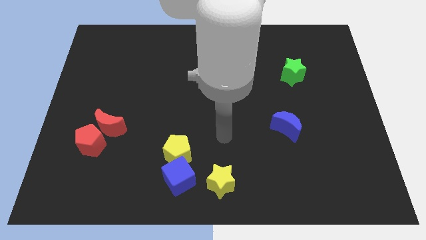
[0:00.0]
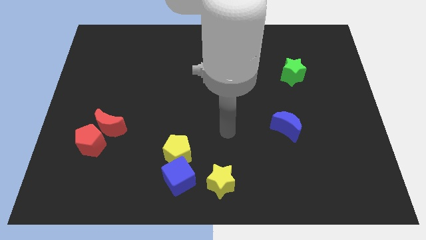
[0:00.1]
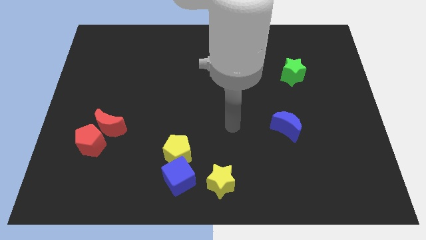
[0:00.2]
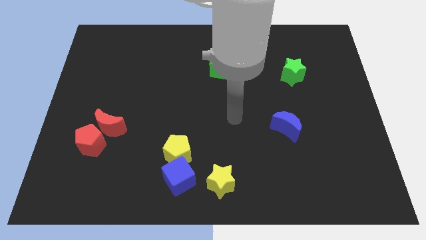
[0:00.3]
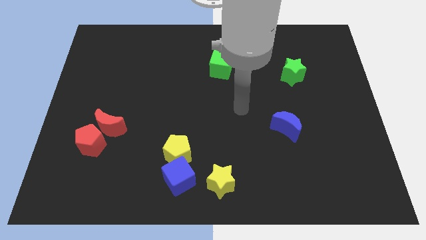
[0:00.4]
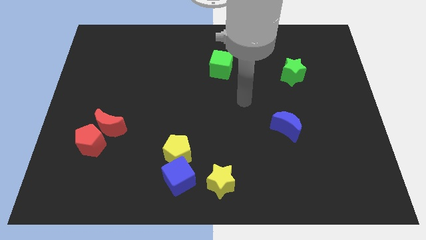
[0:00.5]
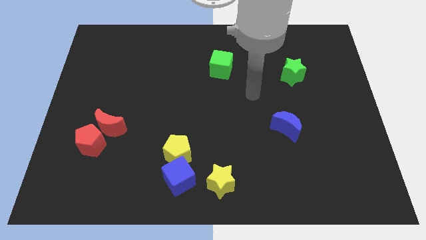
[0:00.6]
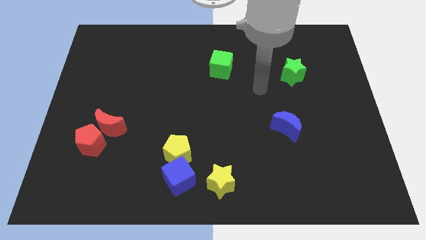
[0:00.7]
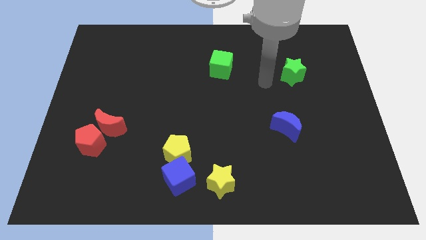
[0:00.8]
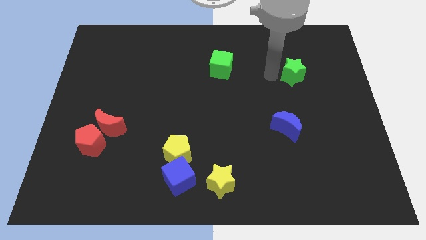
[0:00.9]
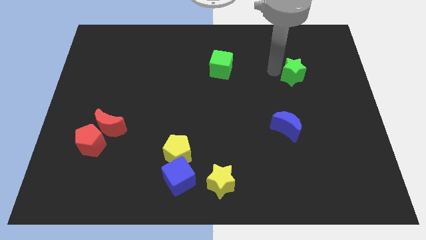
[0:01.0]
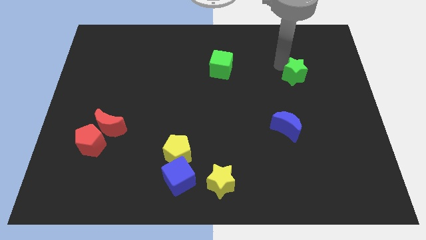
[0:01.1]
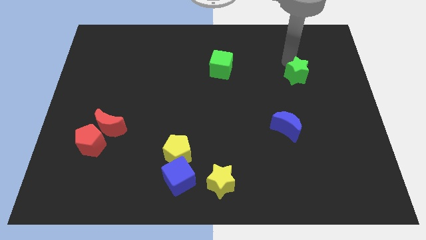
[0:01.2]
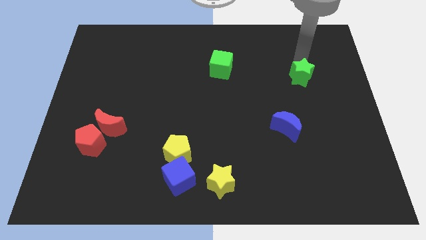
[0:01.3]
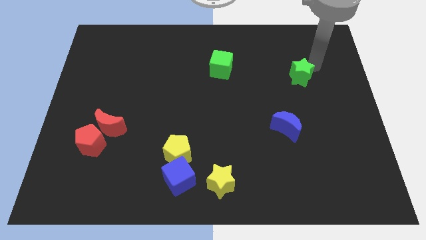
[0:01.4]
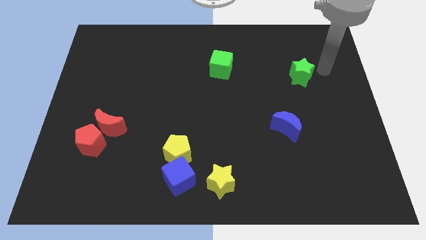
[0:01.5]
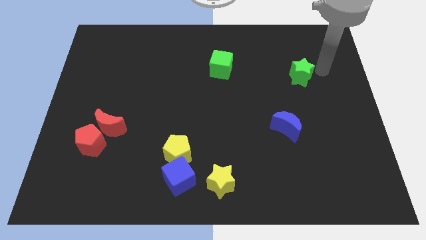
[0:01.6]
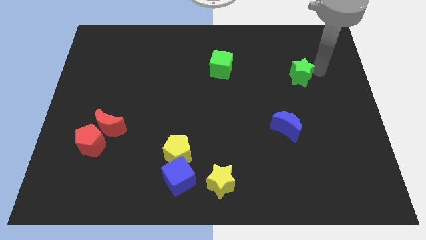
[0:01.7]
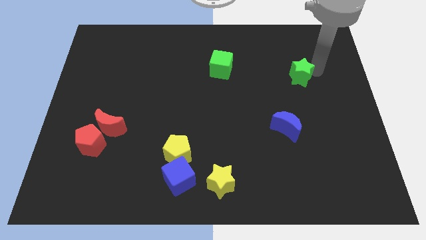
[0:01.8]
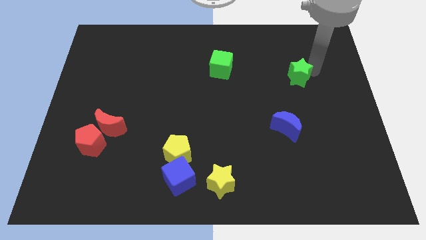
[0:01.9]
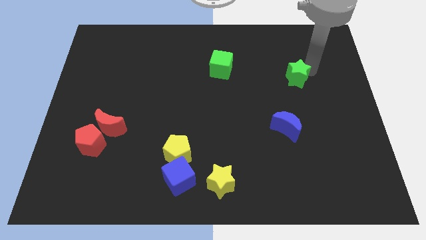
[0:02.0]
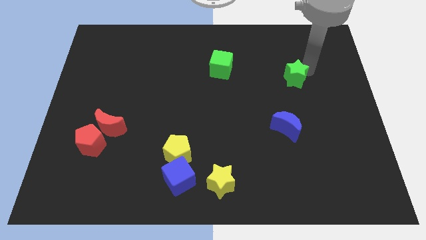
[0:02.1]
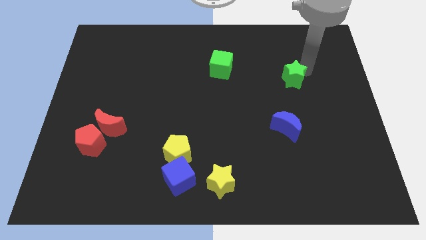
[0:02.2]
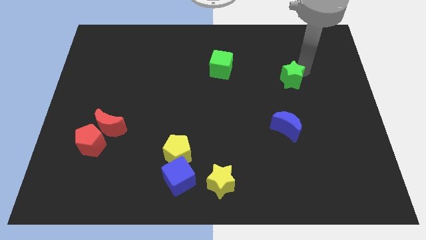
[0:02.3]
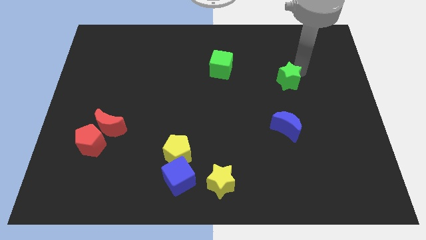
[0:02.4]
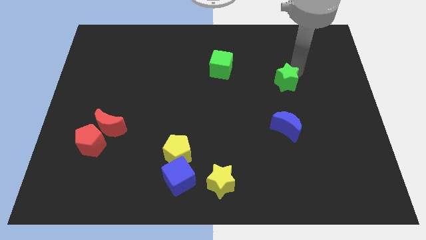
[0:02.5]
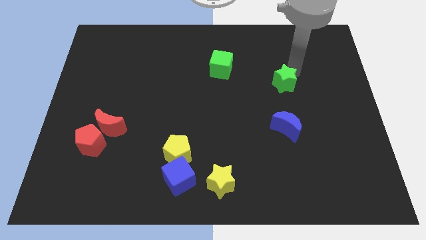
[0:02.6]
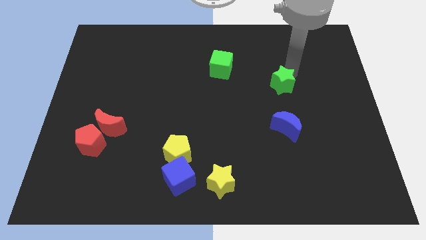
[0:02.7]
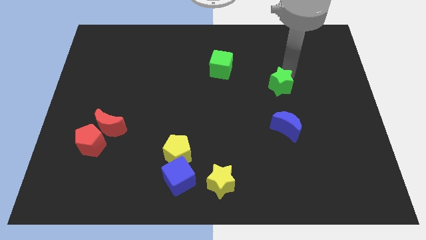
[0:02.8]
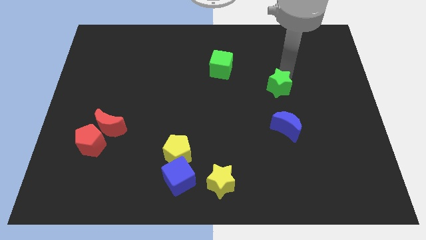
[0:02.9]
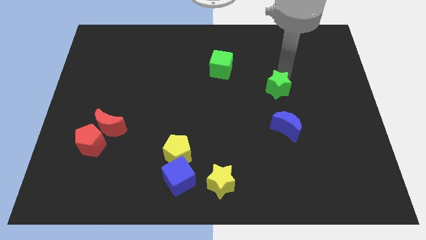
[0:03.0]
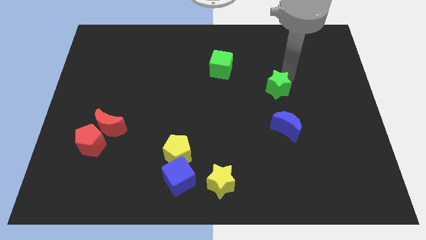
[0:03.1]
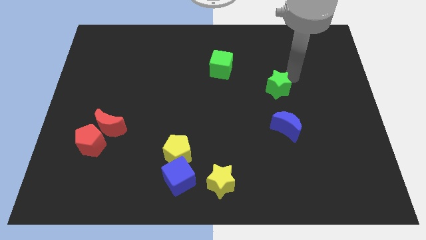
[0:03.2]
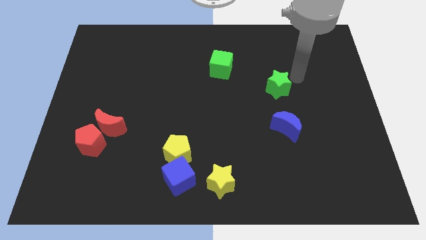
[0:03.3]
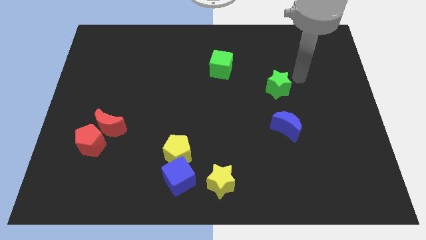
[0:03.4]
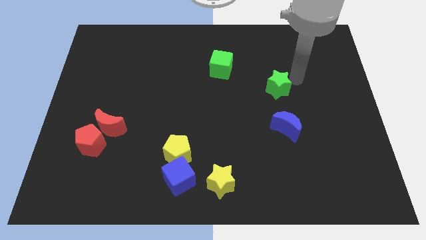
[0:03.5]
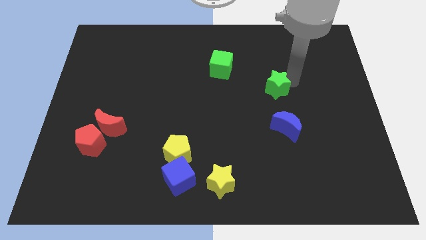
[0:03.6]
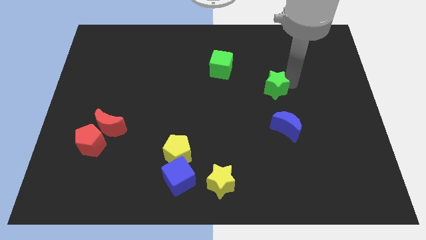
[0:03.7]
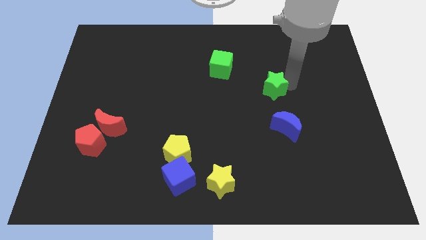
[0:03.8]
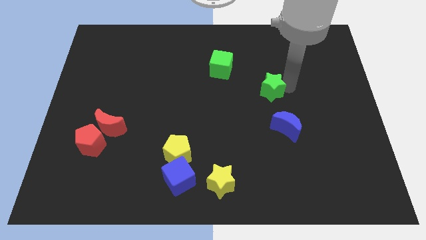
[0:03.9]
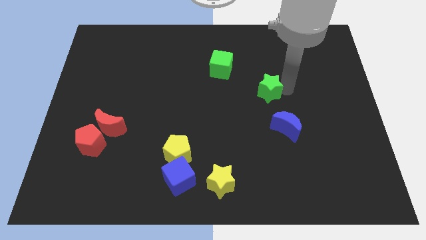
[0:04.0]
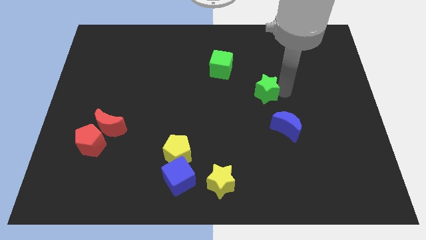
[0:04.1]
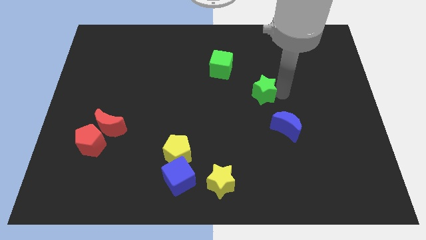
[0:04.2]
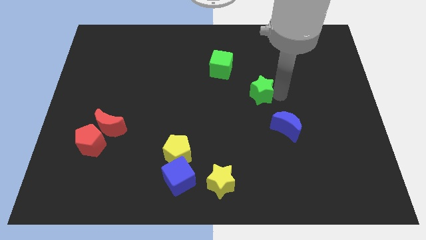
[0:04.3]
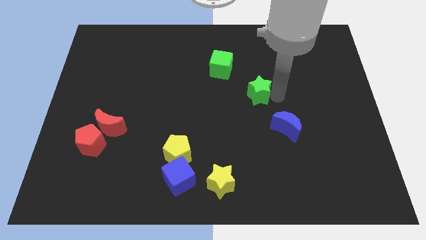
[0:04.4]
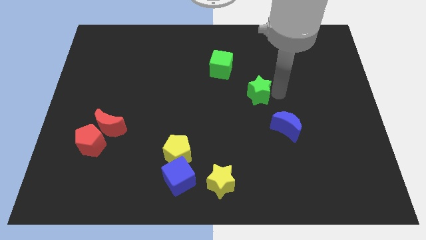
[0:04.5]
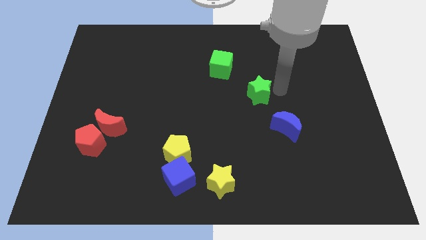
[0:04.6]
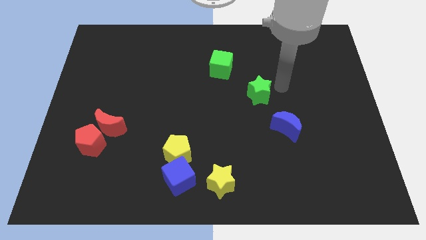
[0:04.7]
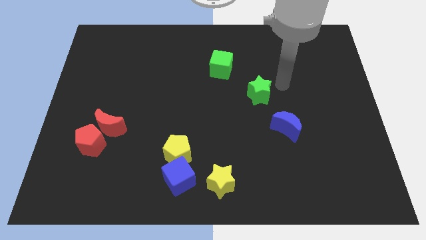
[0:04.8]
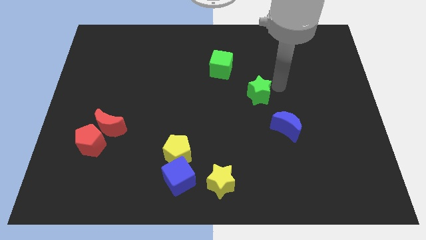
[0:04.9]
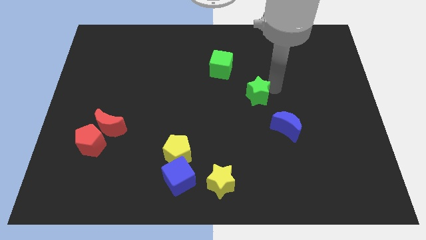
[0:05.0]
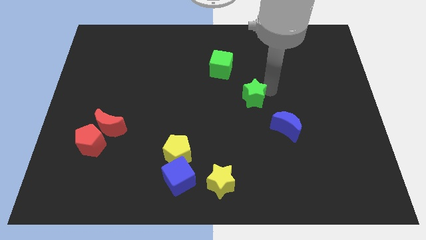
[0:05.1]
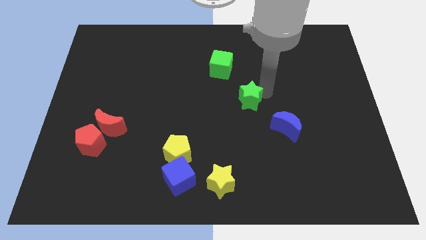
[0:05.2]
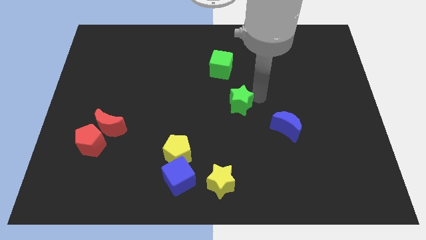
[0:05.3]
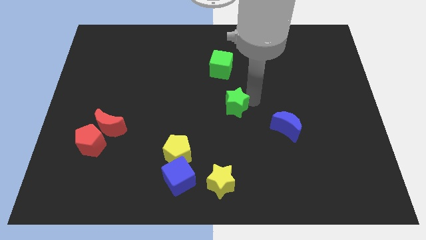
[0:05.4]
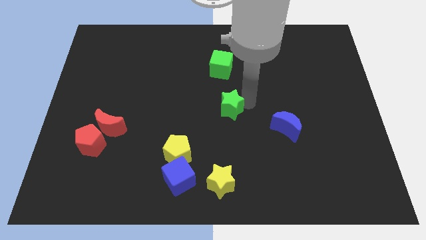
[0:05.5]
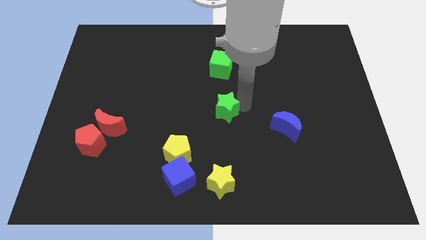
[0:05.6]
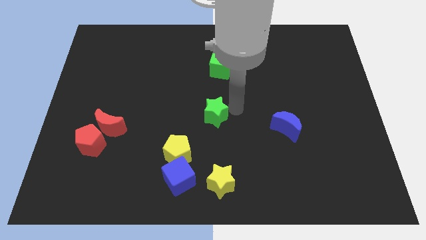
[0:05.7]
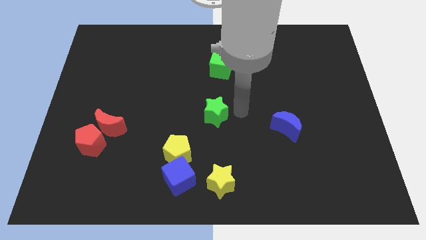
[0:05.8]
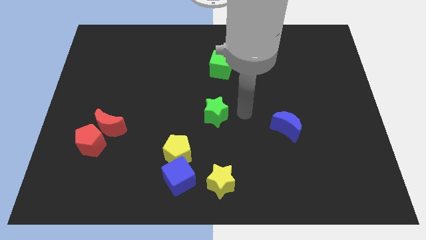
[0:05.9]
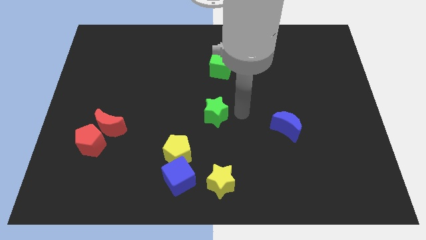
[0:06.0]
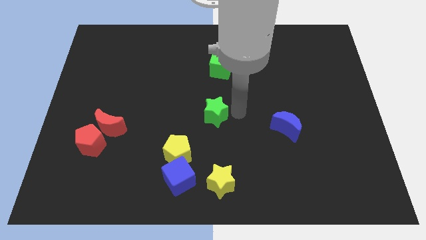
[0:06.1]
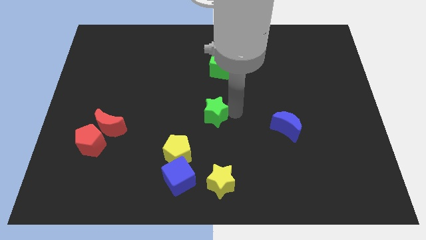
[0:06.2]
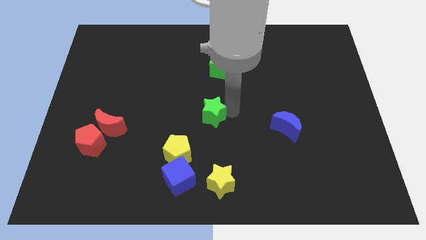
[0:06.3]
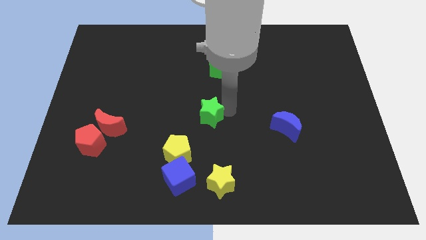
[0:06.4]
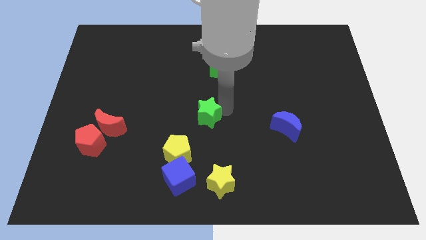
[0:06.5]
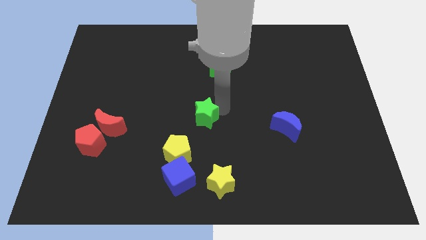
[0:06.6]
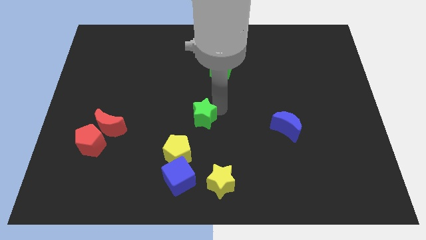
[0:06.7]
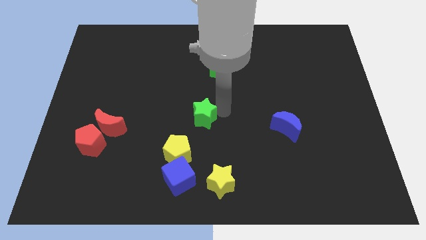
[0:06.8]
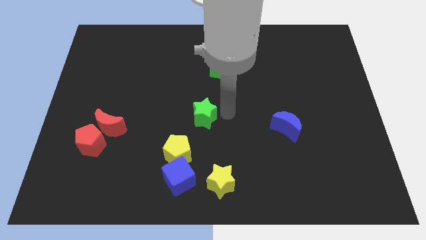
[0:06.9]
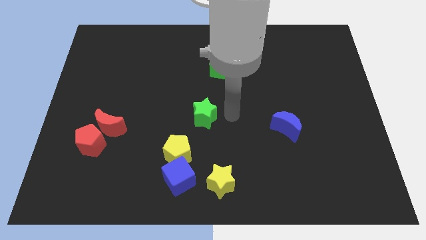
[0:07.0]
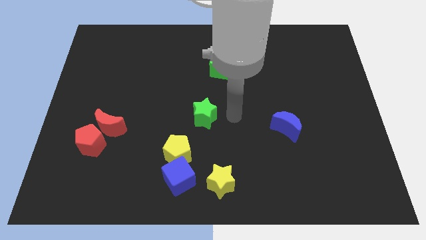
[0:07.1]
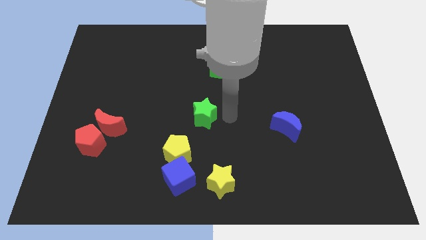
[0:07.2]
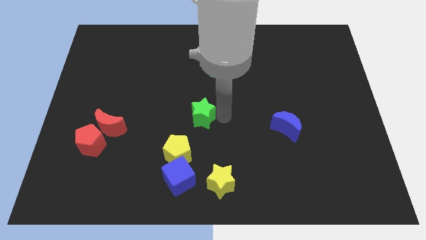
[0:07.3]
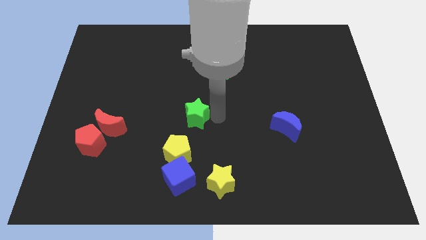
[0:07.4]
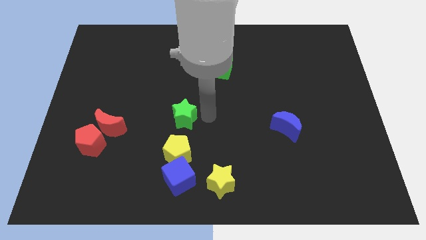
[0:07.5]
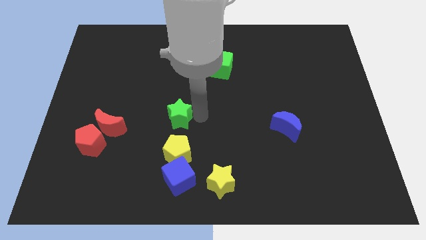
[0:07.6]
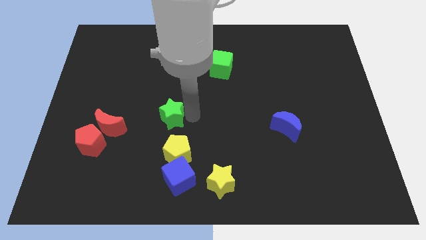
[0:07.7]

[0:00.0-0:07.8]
move the green star right of the red moon
